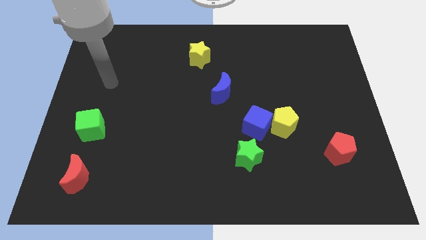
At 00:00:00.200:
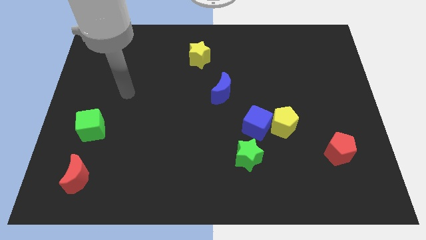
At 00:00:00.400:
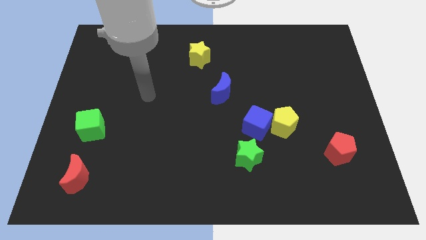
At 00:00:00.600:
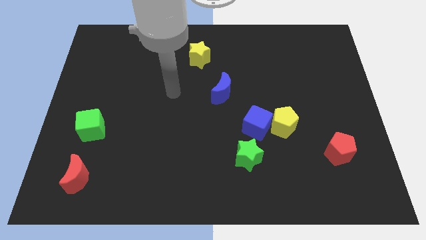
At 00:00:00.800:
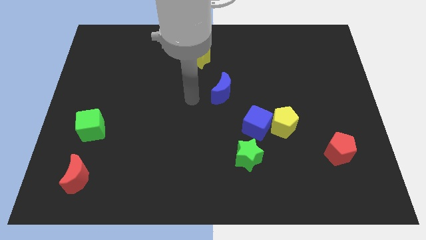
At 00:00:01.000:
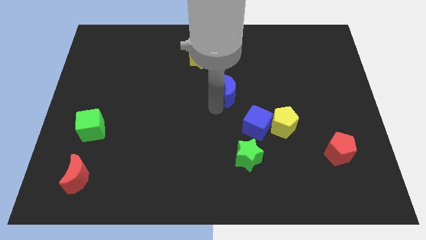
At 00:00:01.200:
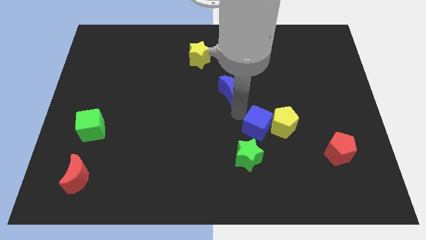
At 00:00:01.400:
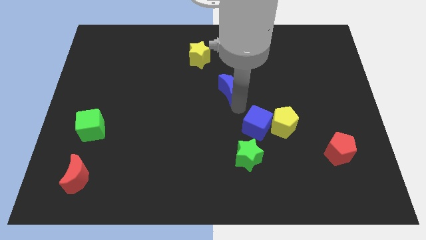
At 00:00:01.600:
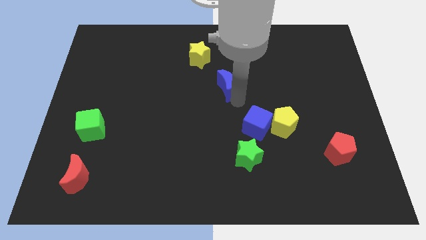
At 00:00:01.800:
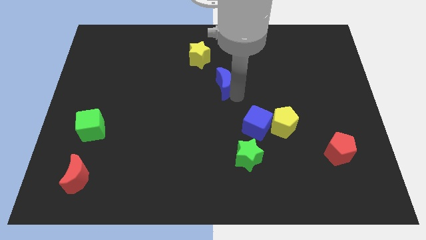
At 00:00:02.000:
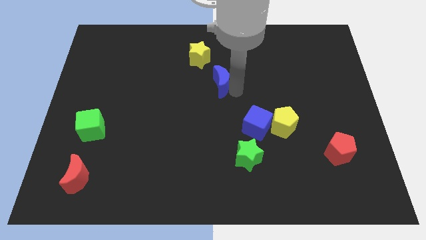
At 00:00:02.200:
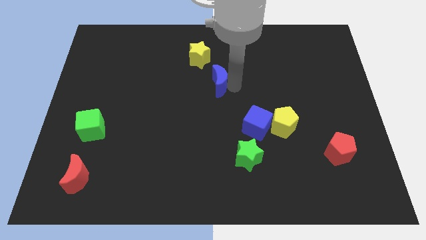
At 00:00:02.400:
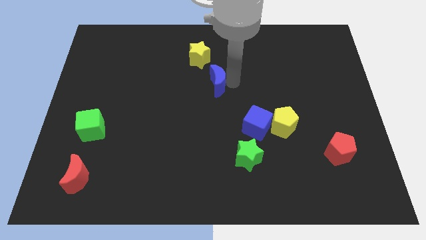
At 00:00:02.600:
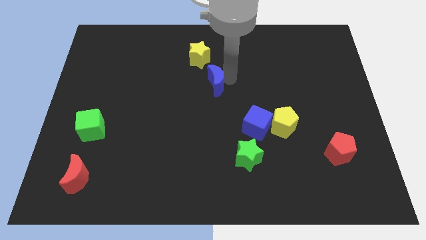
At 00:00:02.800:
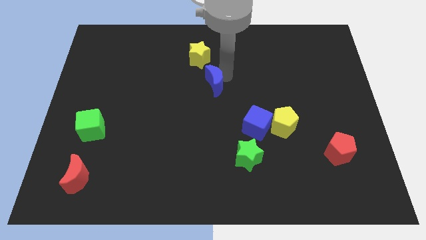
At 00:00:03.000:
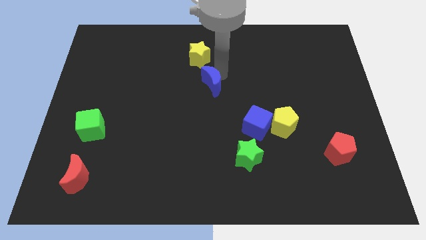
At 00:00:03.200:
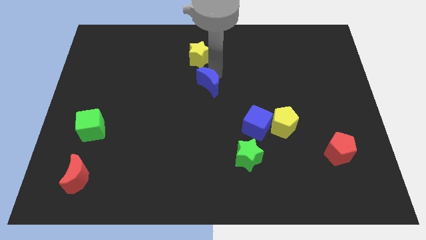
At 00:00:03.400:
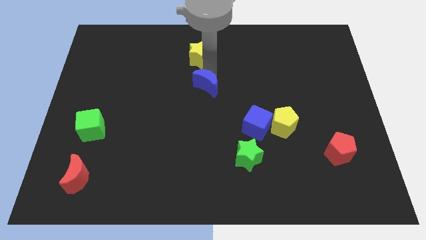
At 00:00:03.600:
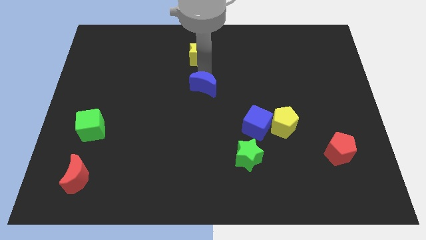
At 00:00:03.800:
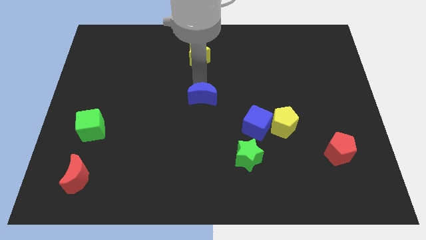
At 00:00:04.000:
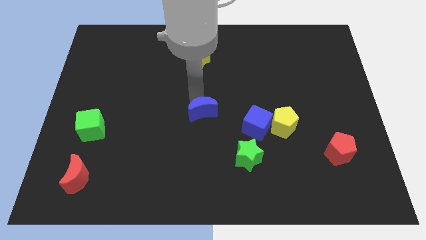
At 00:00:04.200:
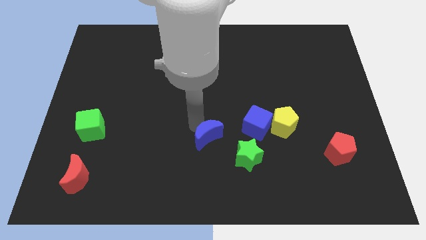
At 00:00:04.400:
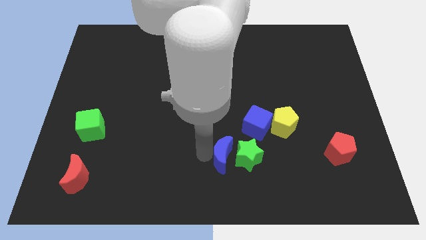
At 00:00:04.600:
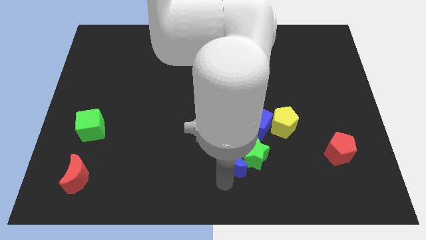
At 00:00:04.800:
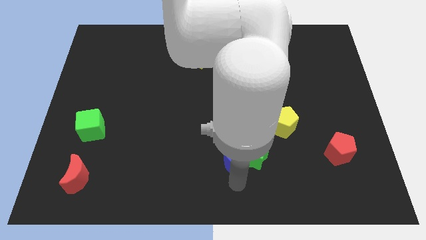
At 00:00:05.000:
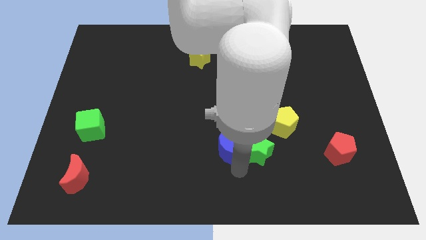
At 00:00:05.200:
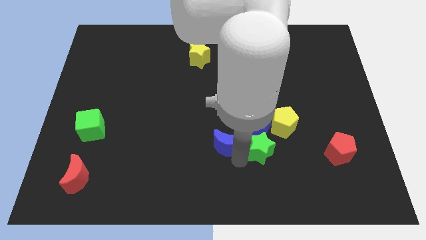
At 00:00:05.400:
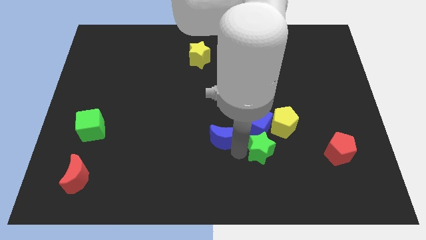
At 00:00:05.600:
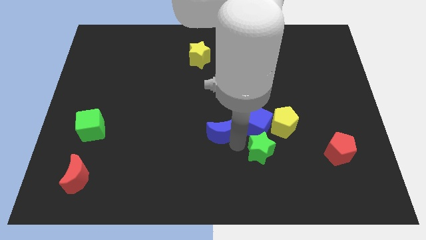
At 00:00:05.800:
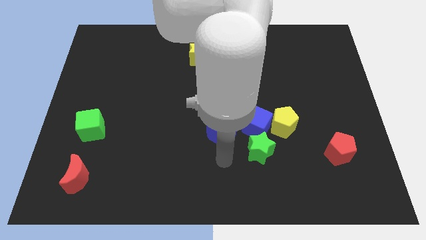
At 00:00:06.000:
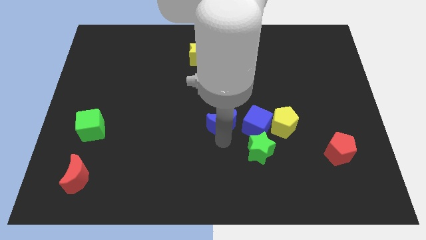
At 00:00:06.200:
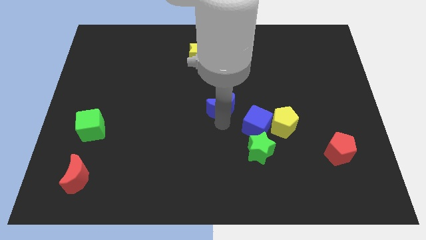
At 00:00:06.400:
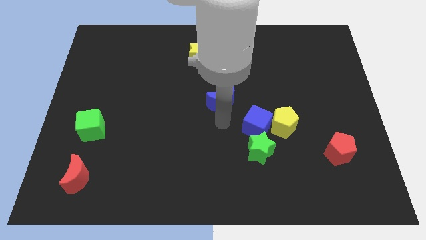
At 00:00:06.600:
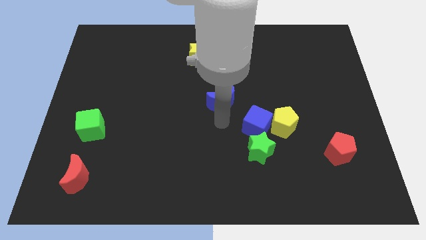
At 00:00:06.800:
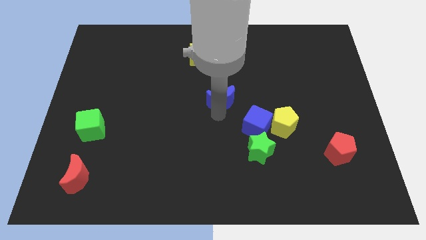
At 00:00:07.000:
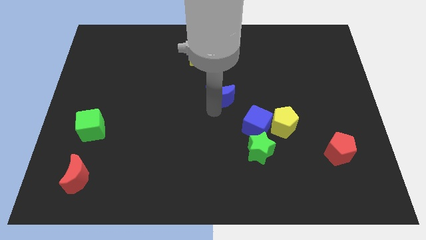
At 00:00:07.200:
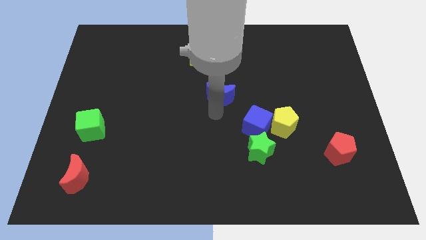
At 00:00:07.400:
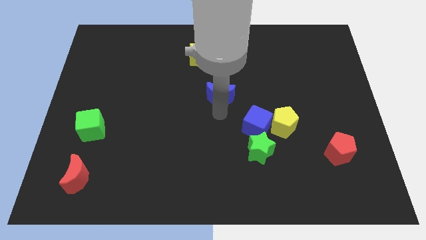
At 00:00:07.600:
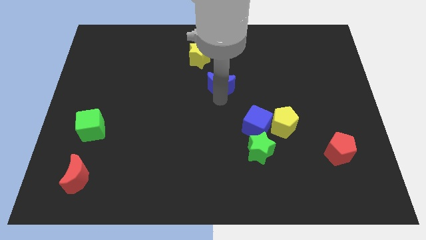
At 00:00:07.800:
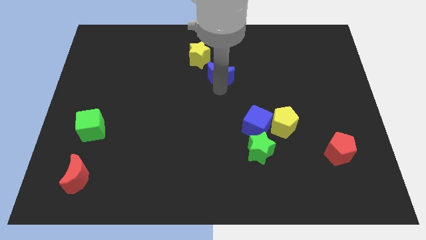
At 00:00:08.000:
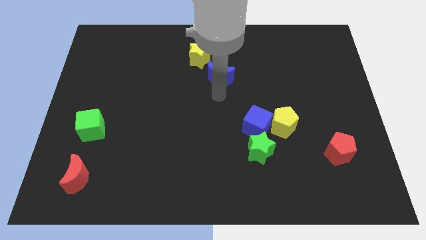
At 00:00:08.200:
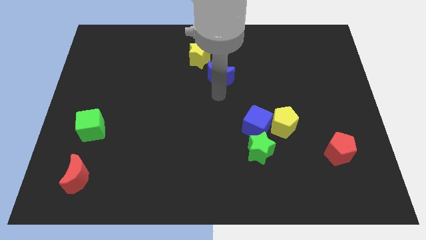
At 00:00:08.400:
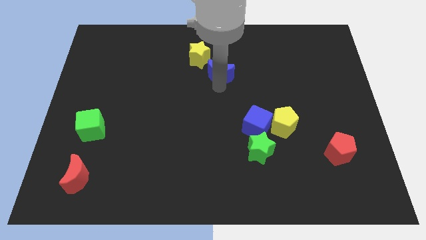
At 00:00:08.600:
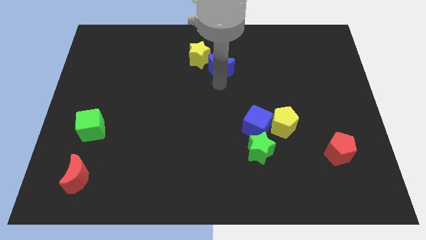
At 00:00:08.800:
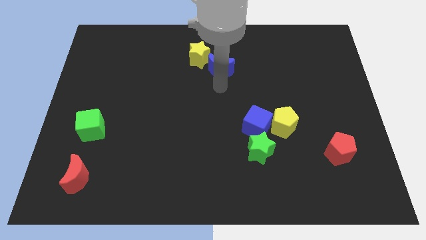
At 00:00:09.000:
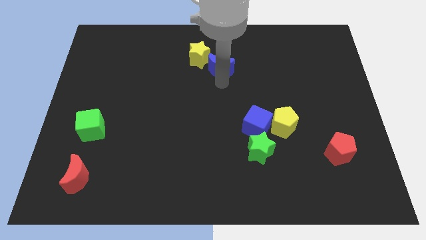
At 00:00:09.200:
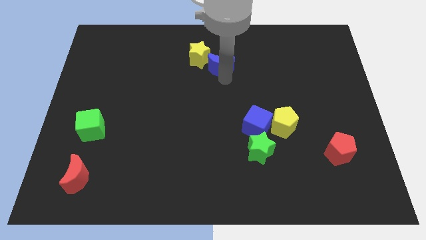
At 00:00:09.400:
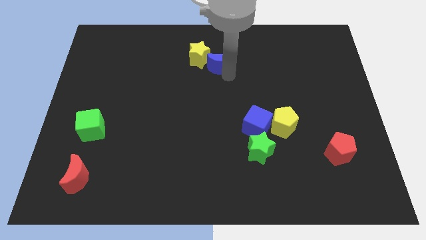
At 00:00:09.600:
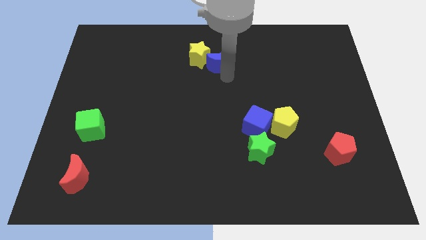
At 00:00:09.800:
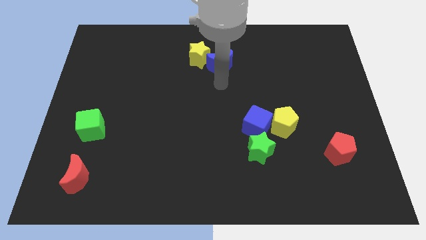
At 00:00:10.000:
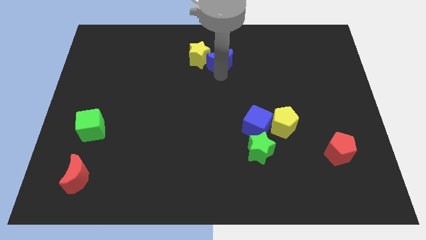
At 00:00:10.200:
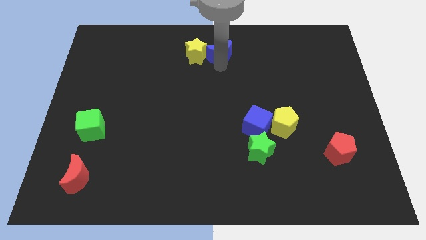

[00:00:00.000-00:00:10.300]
slide the blue moon to the top

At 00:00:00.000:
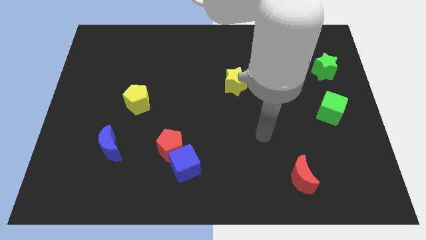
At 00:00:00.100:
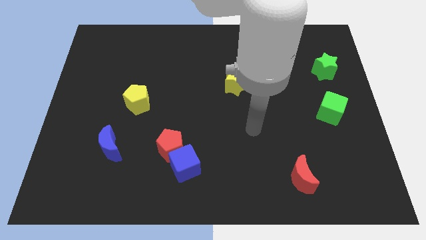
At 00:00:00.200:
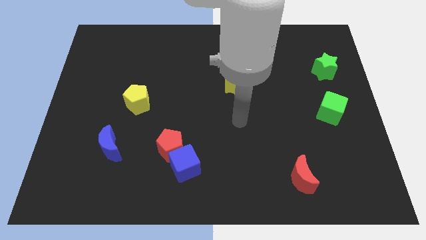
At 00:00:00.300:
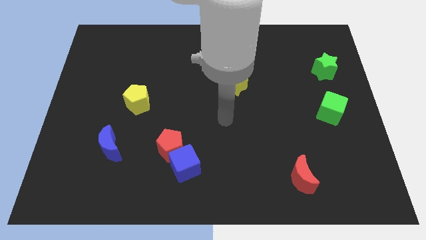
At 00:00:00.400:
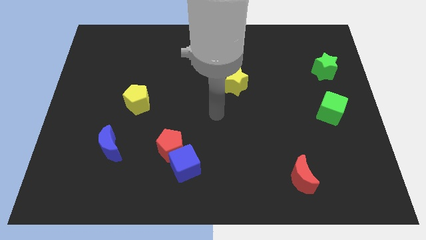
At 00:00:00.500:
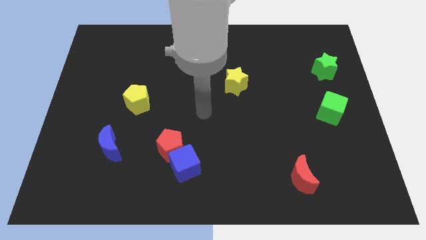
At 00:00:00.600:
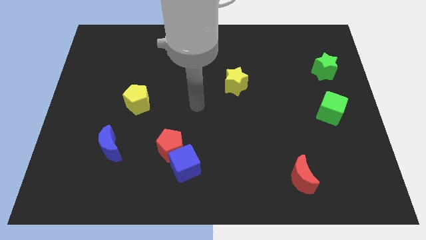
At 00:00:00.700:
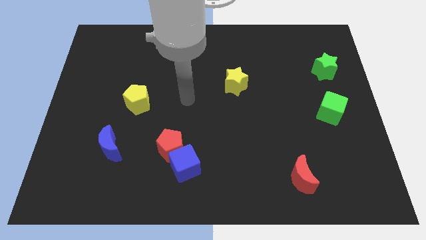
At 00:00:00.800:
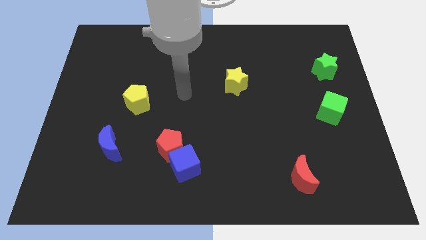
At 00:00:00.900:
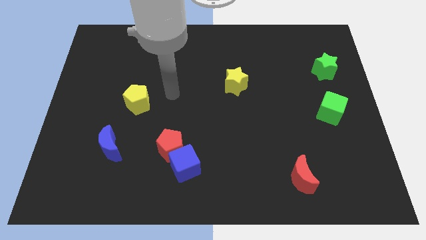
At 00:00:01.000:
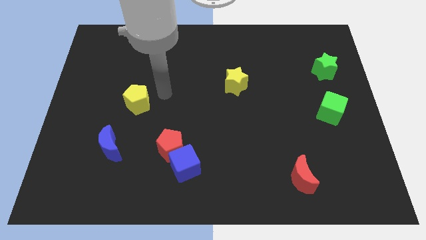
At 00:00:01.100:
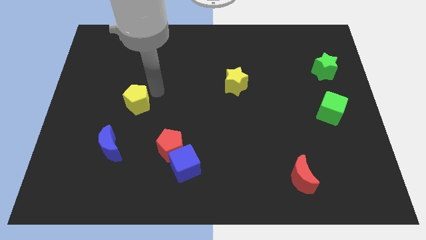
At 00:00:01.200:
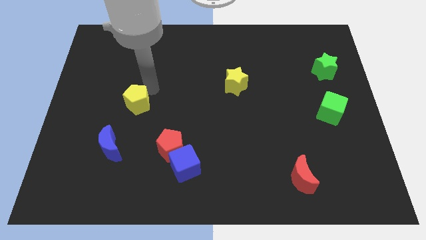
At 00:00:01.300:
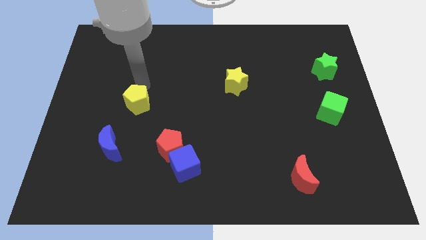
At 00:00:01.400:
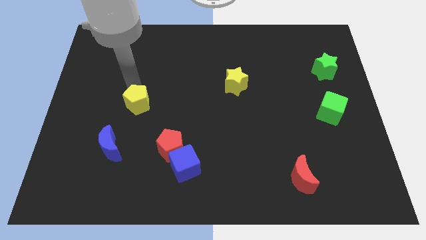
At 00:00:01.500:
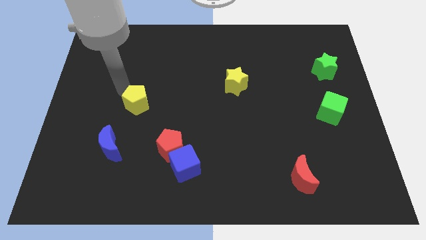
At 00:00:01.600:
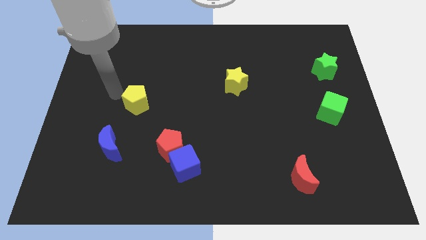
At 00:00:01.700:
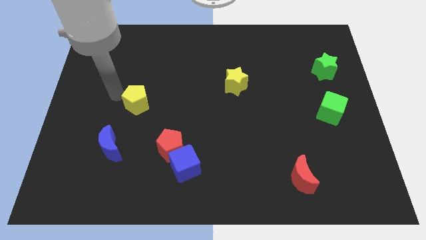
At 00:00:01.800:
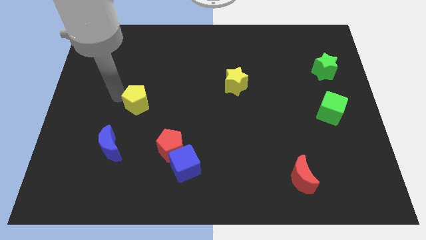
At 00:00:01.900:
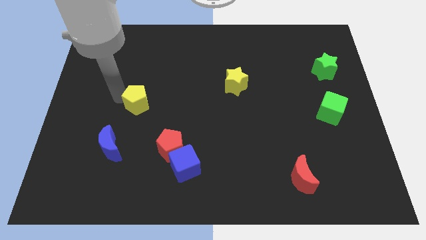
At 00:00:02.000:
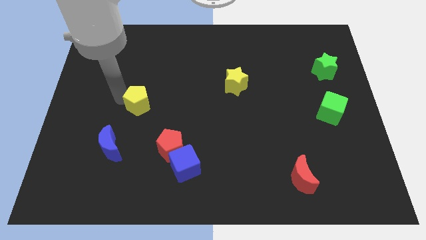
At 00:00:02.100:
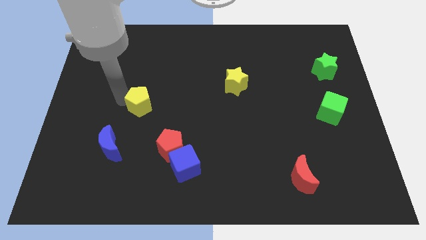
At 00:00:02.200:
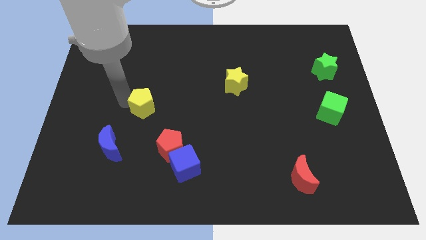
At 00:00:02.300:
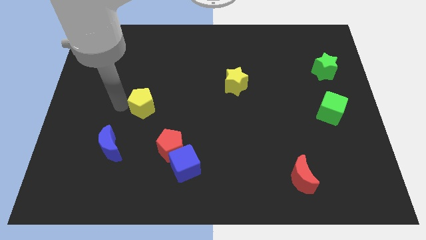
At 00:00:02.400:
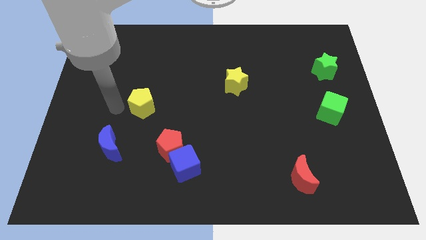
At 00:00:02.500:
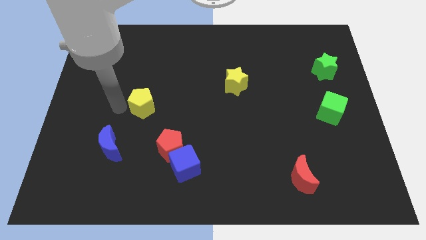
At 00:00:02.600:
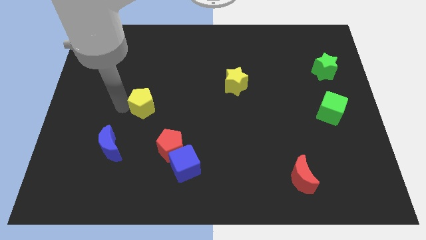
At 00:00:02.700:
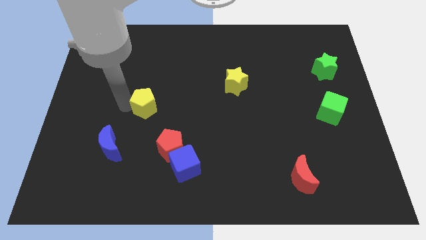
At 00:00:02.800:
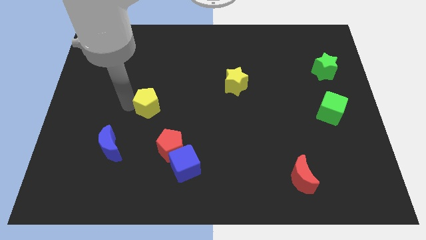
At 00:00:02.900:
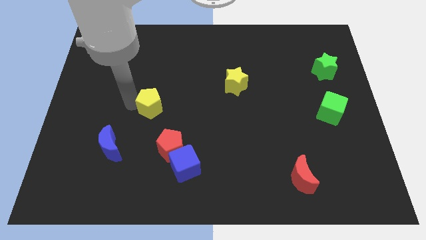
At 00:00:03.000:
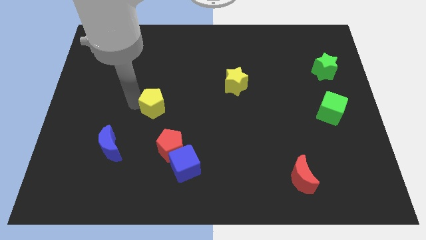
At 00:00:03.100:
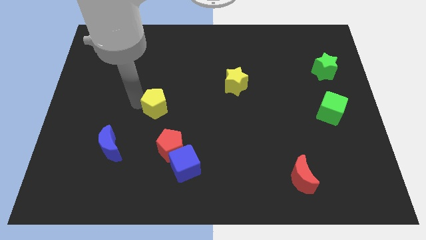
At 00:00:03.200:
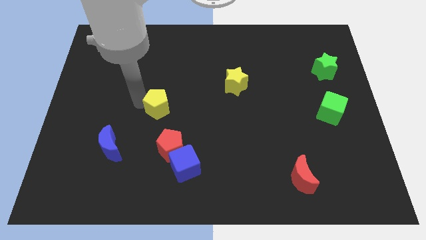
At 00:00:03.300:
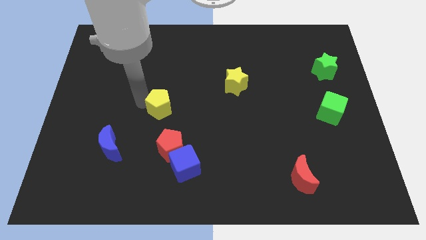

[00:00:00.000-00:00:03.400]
slide the yellow pentagon to the center
